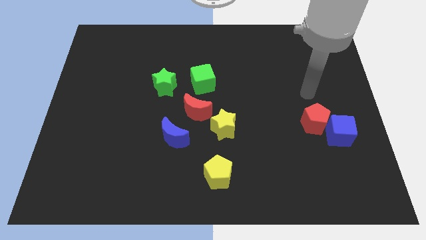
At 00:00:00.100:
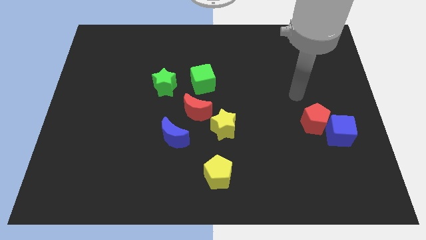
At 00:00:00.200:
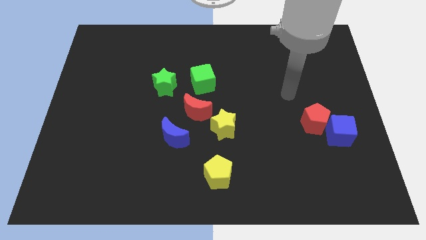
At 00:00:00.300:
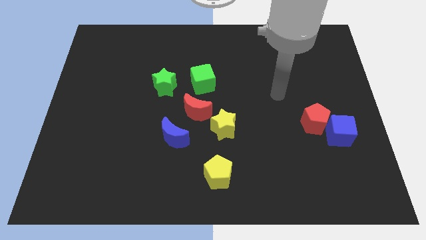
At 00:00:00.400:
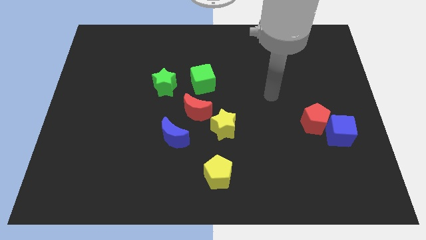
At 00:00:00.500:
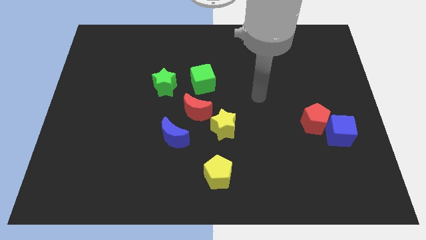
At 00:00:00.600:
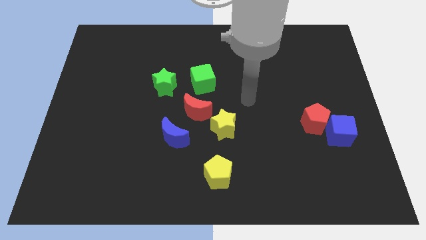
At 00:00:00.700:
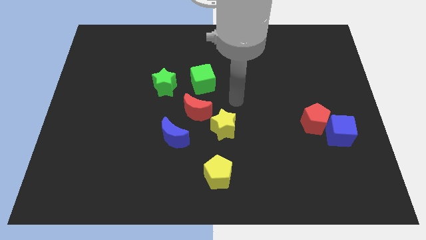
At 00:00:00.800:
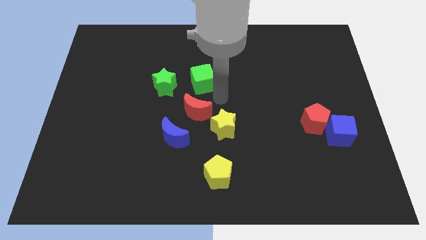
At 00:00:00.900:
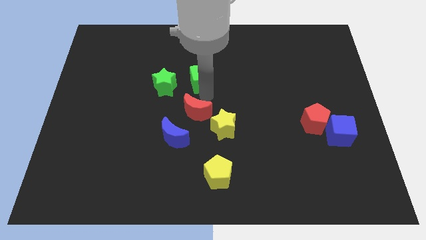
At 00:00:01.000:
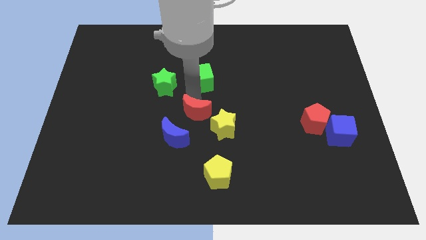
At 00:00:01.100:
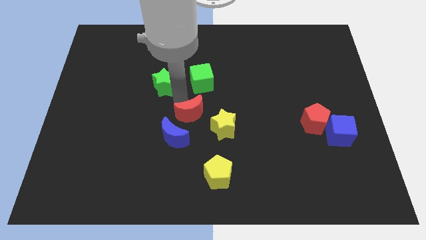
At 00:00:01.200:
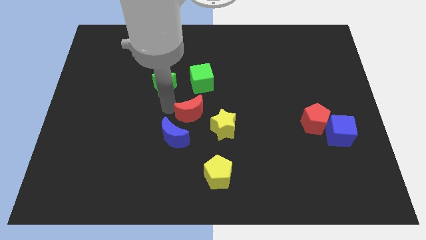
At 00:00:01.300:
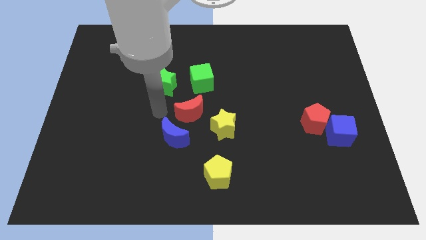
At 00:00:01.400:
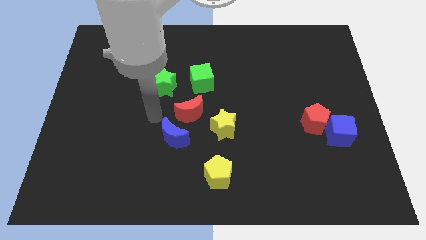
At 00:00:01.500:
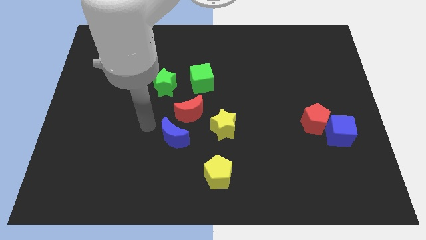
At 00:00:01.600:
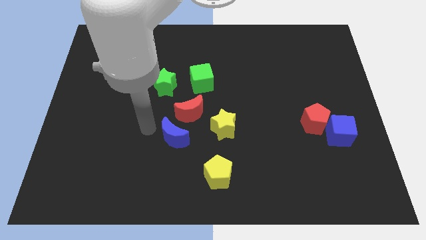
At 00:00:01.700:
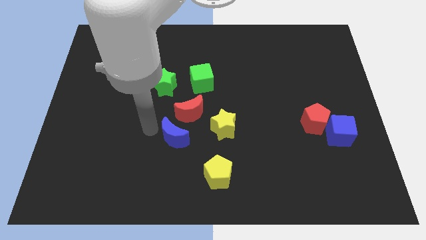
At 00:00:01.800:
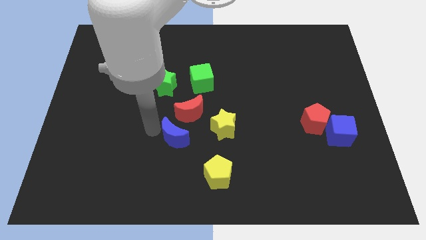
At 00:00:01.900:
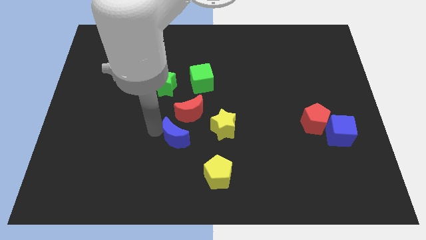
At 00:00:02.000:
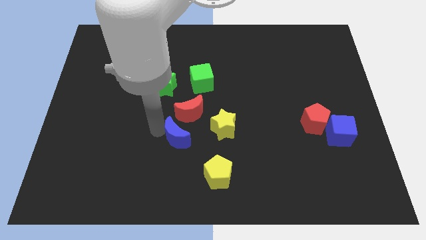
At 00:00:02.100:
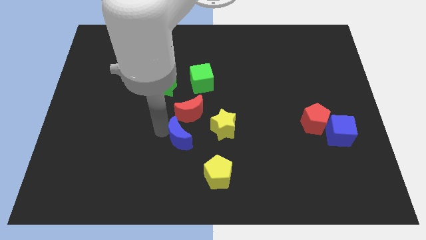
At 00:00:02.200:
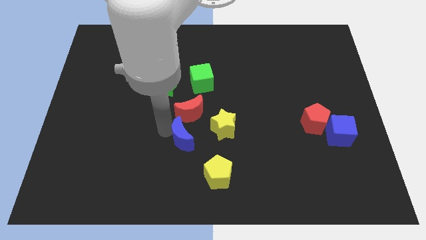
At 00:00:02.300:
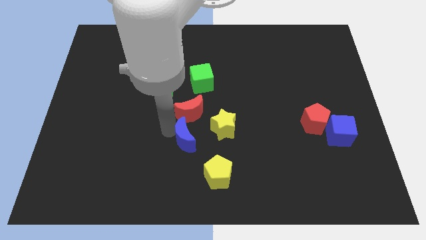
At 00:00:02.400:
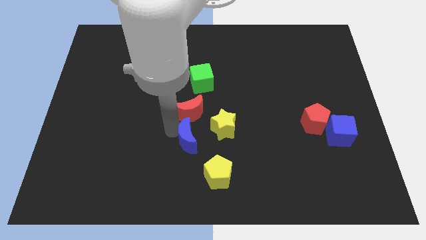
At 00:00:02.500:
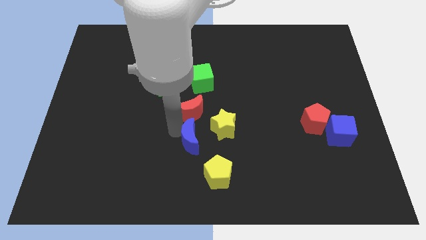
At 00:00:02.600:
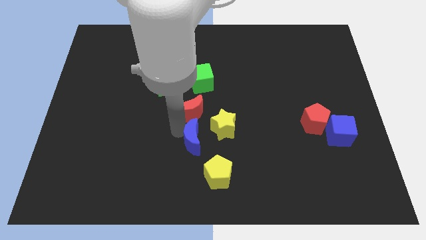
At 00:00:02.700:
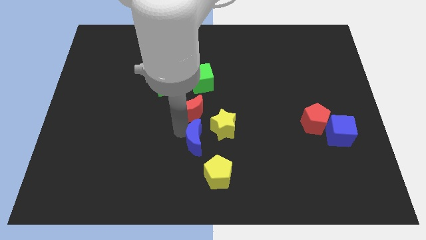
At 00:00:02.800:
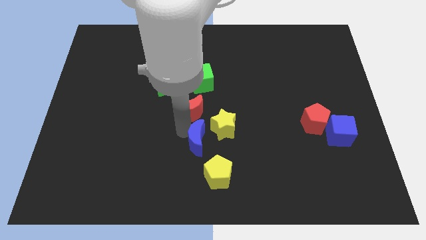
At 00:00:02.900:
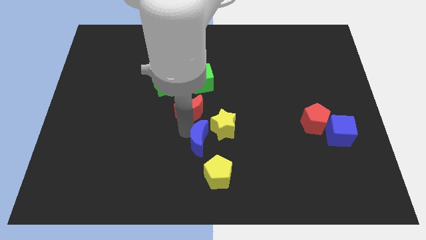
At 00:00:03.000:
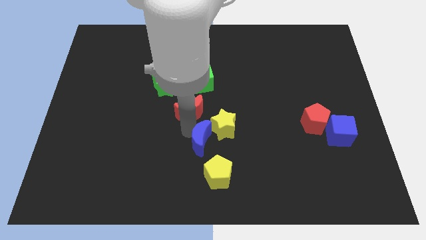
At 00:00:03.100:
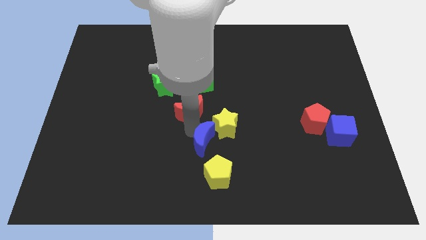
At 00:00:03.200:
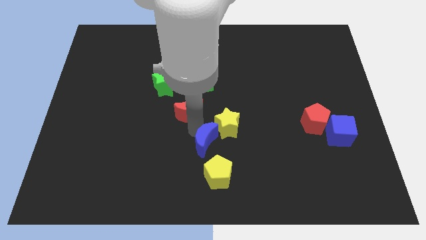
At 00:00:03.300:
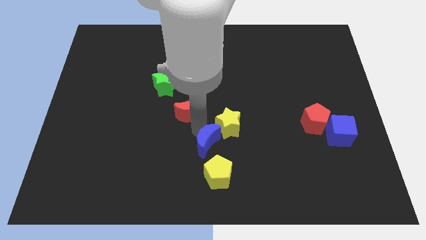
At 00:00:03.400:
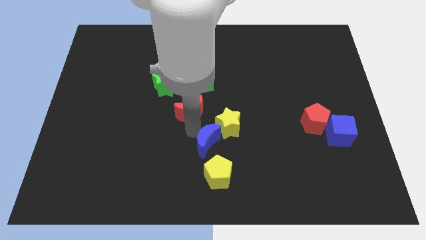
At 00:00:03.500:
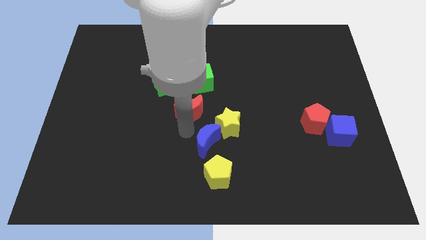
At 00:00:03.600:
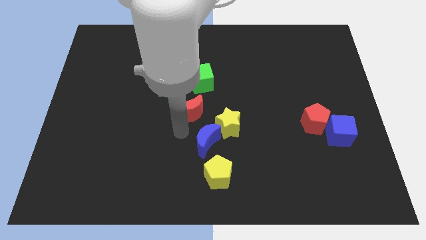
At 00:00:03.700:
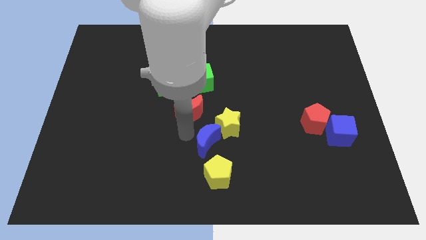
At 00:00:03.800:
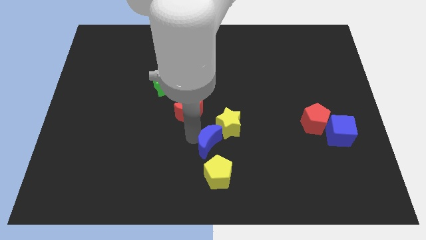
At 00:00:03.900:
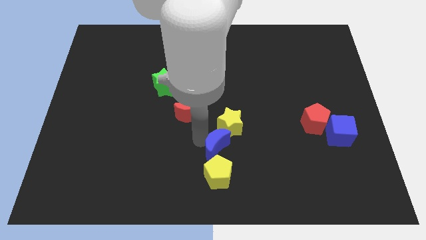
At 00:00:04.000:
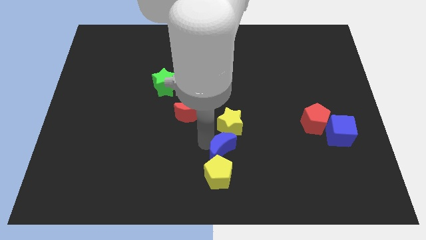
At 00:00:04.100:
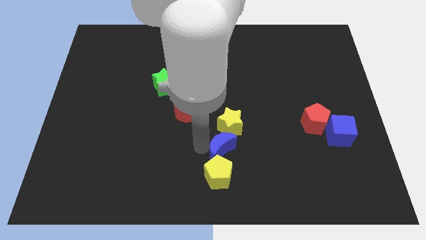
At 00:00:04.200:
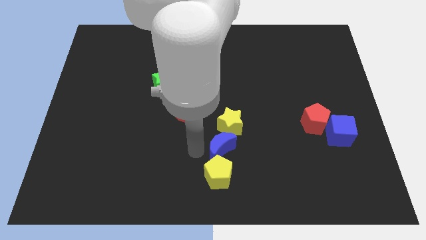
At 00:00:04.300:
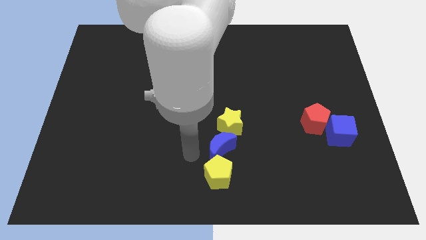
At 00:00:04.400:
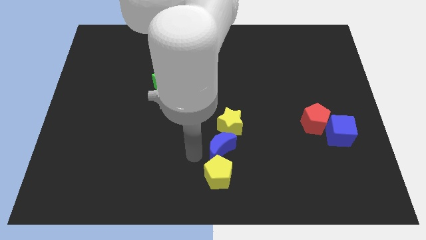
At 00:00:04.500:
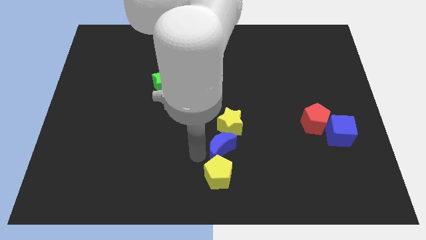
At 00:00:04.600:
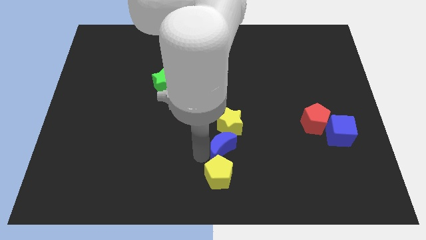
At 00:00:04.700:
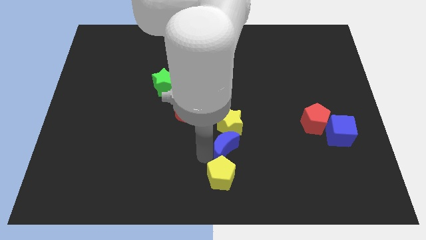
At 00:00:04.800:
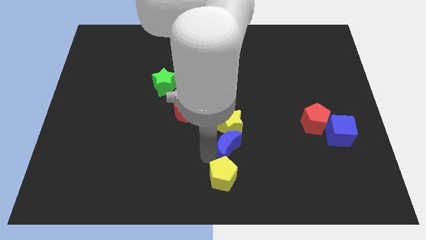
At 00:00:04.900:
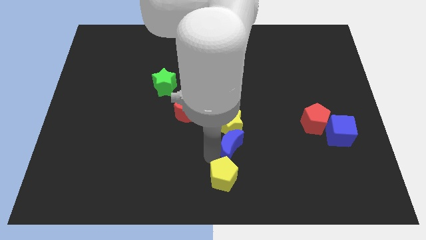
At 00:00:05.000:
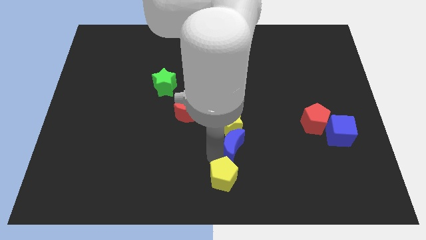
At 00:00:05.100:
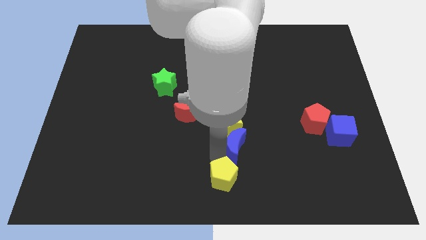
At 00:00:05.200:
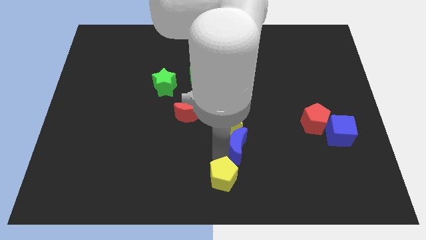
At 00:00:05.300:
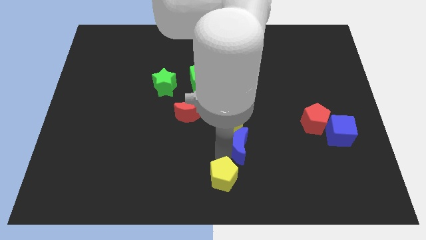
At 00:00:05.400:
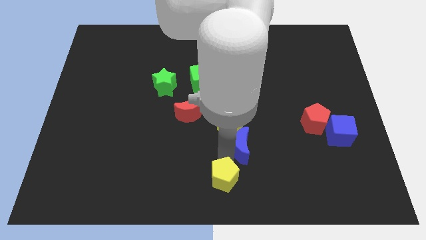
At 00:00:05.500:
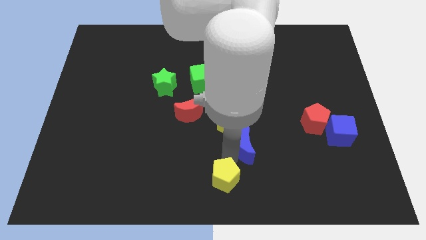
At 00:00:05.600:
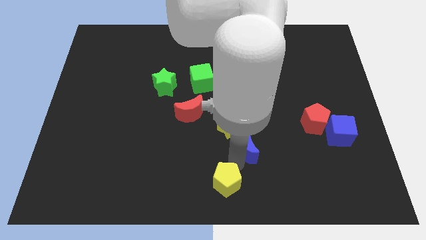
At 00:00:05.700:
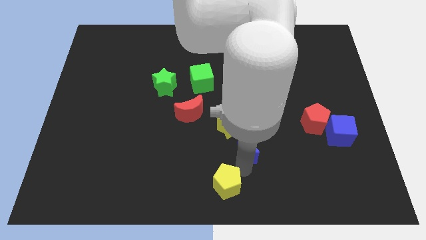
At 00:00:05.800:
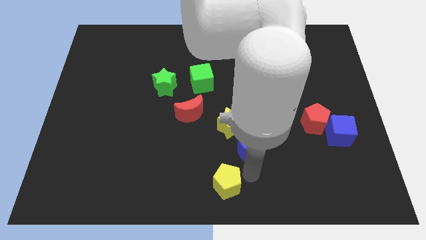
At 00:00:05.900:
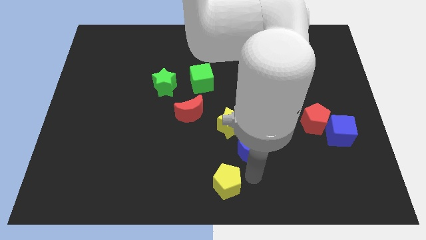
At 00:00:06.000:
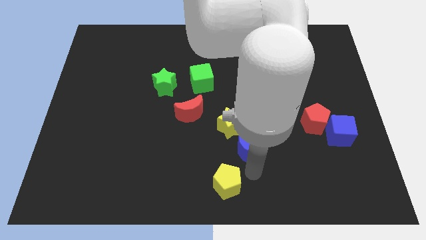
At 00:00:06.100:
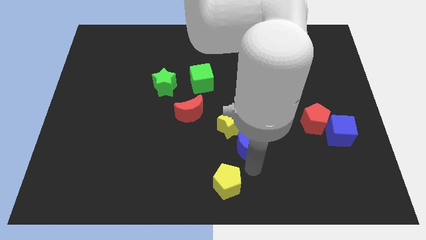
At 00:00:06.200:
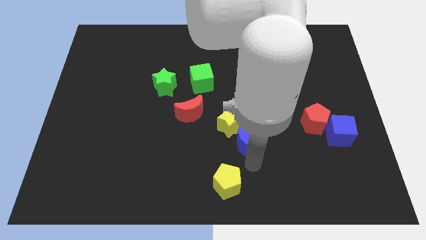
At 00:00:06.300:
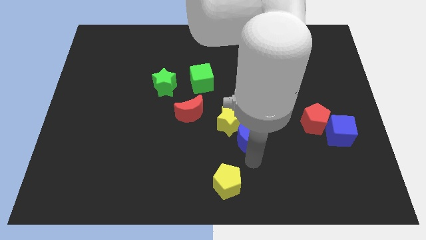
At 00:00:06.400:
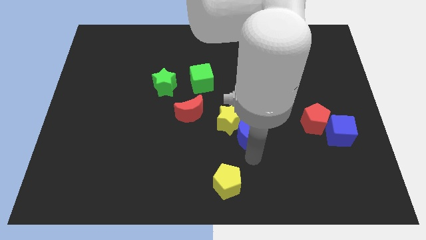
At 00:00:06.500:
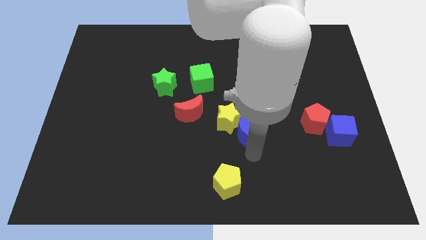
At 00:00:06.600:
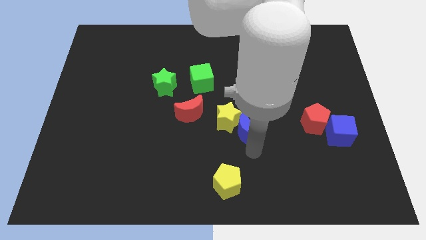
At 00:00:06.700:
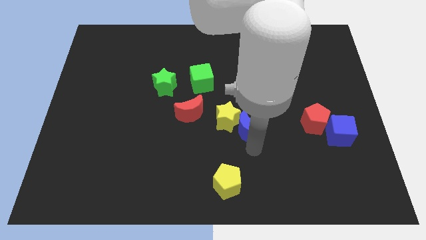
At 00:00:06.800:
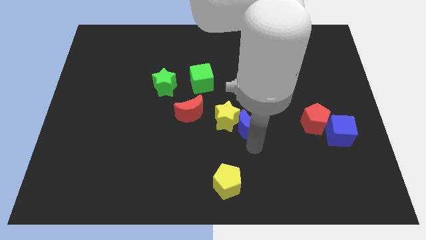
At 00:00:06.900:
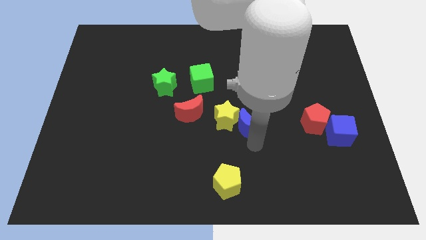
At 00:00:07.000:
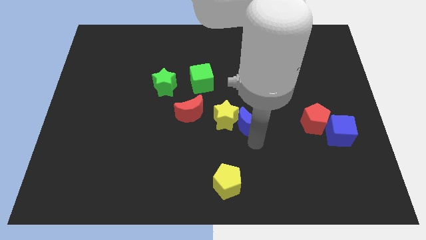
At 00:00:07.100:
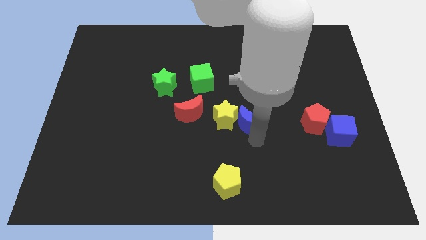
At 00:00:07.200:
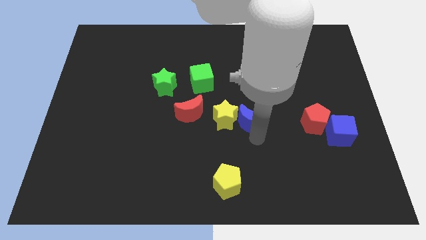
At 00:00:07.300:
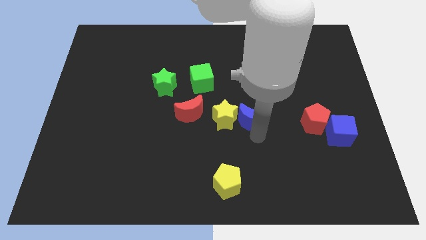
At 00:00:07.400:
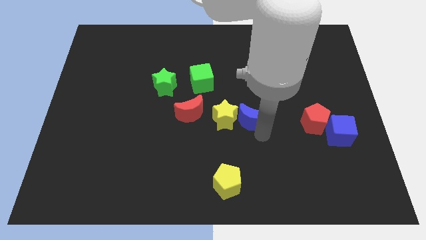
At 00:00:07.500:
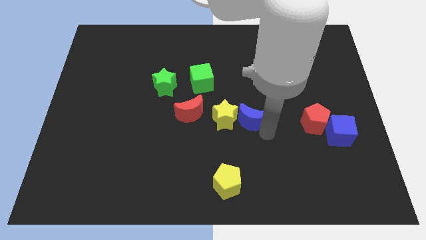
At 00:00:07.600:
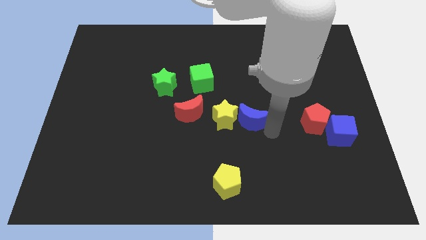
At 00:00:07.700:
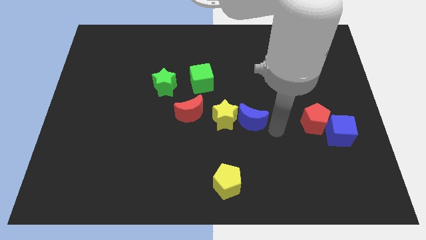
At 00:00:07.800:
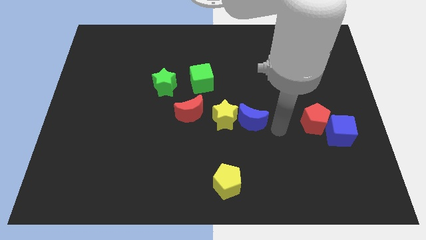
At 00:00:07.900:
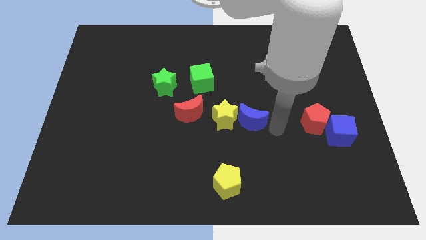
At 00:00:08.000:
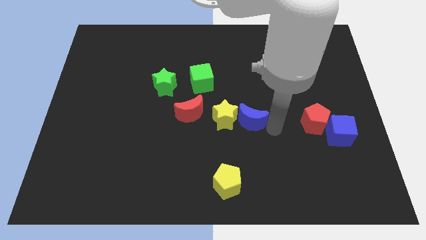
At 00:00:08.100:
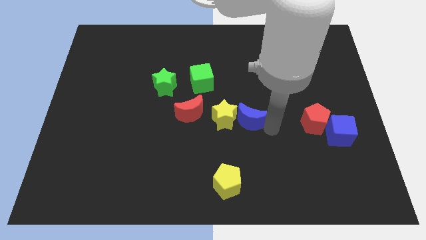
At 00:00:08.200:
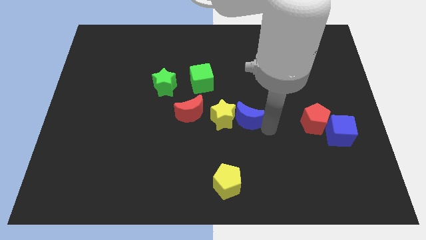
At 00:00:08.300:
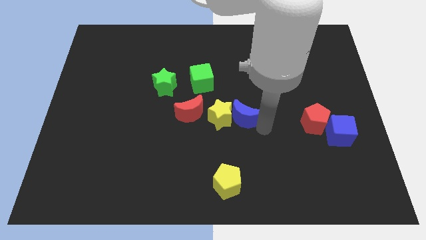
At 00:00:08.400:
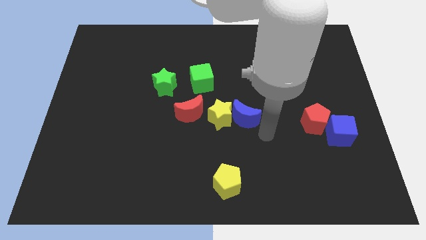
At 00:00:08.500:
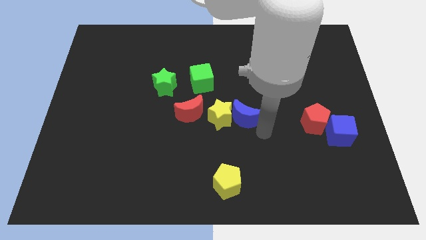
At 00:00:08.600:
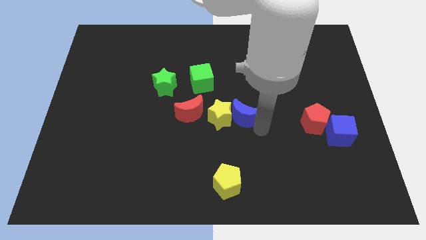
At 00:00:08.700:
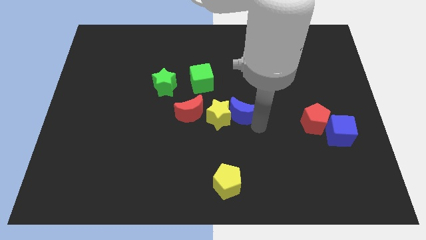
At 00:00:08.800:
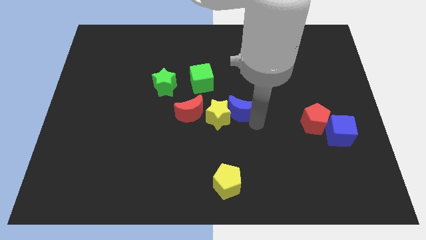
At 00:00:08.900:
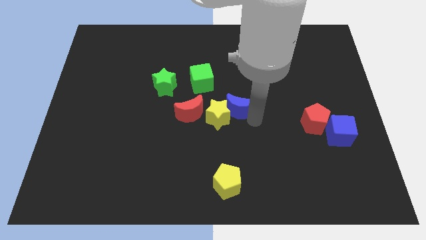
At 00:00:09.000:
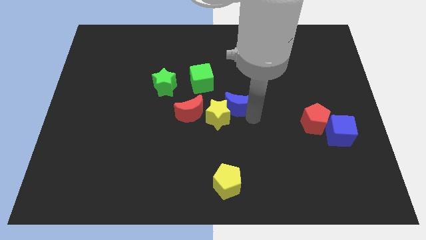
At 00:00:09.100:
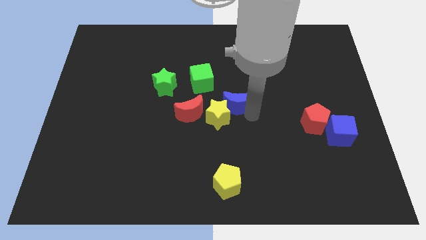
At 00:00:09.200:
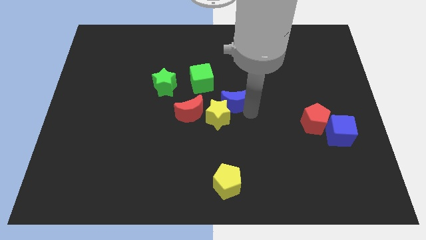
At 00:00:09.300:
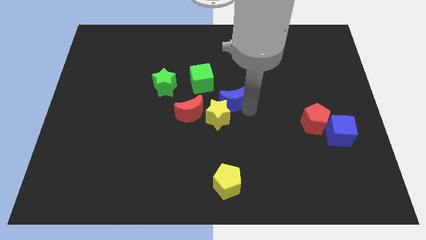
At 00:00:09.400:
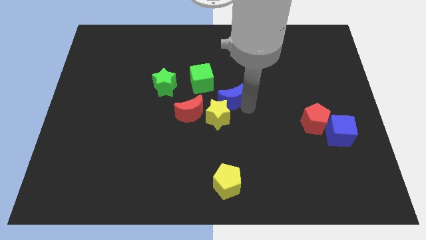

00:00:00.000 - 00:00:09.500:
put the blue moon diagonally up and to the right of the red moon
